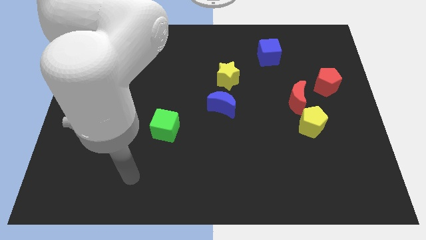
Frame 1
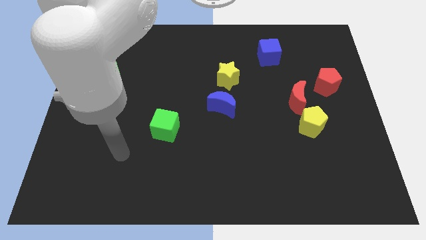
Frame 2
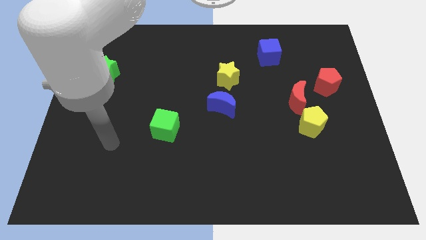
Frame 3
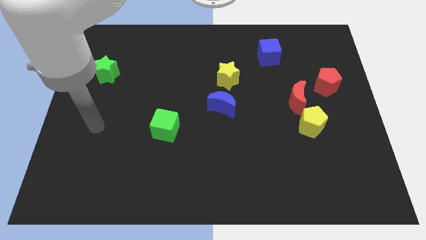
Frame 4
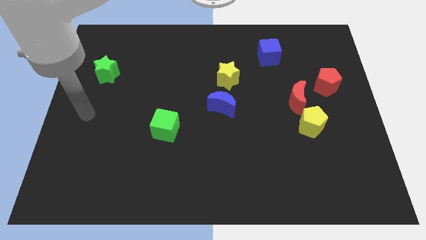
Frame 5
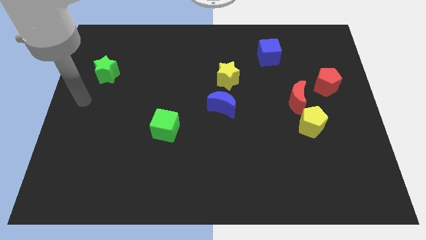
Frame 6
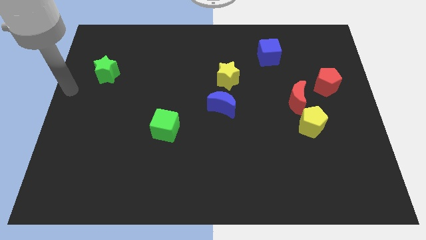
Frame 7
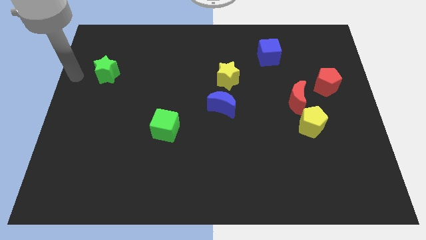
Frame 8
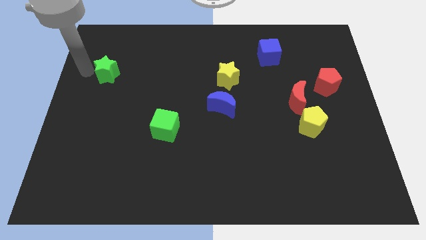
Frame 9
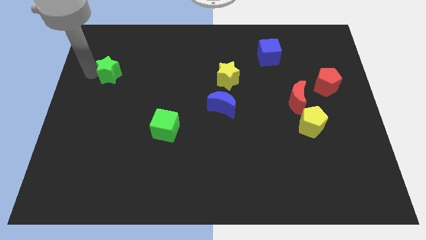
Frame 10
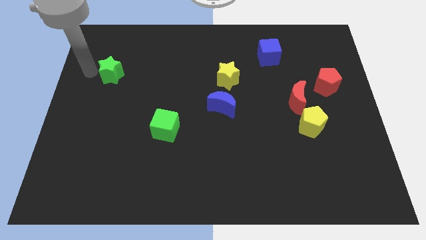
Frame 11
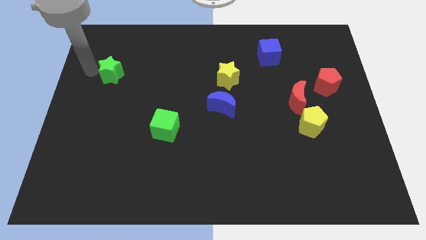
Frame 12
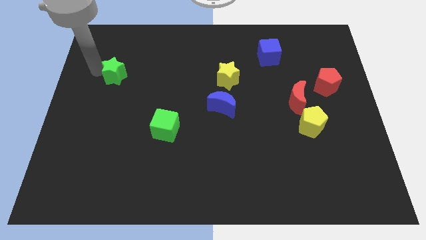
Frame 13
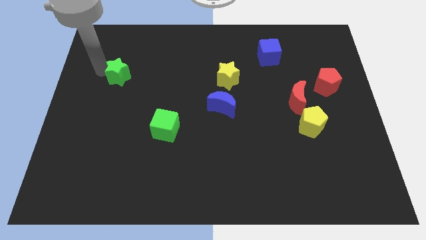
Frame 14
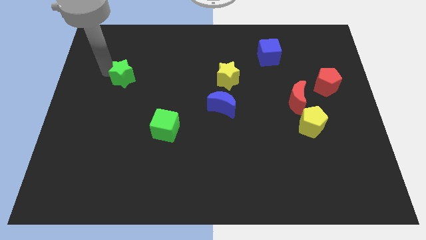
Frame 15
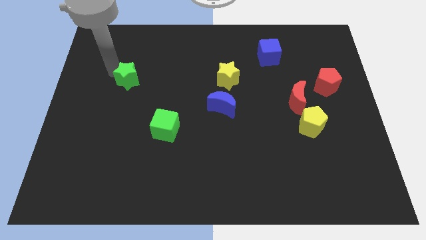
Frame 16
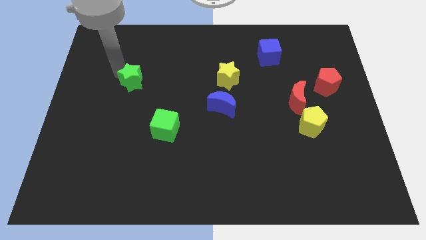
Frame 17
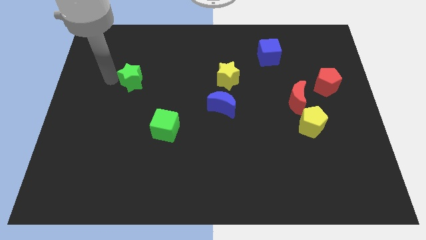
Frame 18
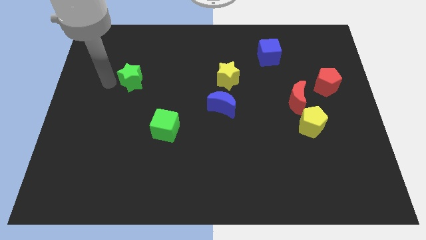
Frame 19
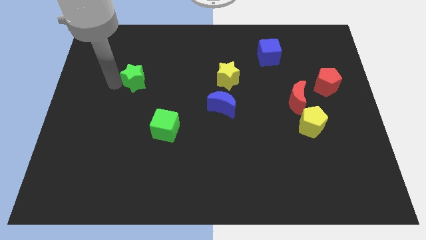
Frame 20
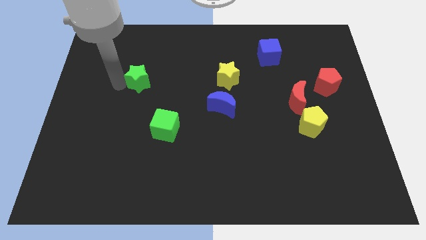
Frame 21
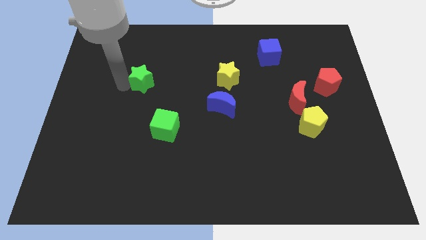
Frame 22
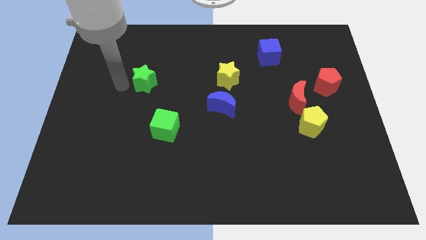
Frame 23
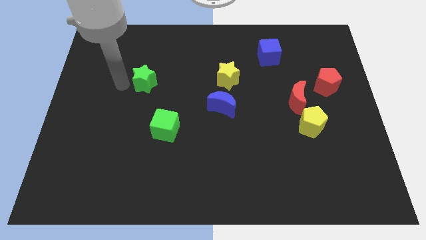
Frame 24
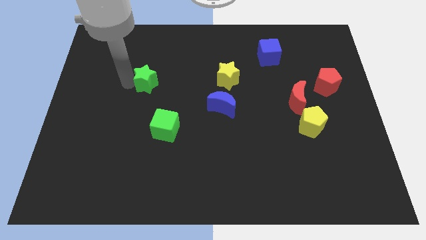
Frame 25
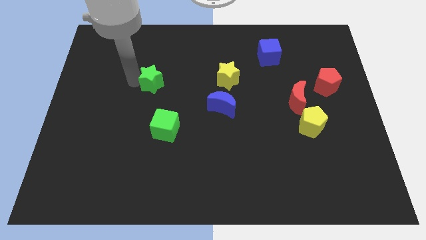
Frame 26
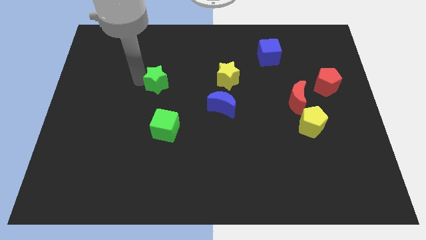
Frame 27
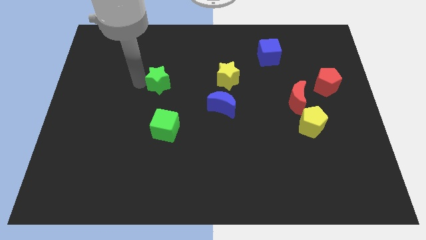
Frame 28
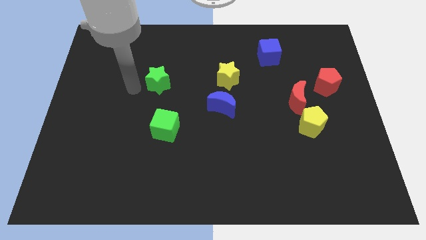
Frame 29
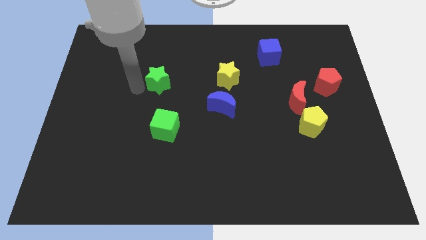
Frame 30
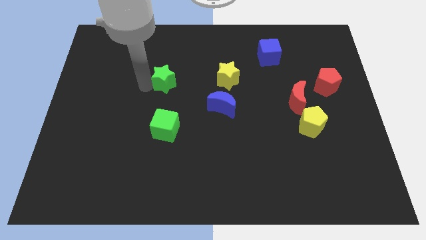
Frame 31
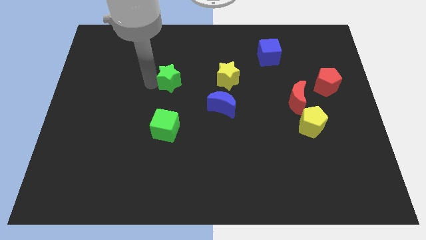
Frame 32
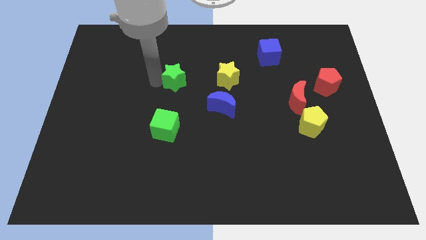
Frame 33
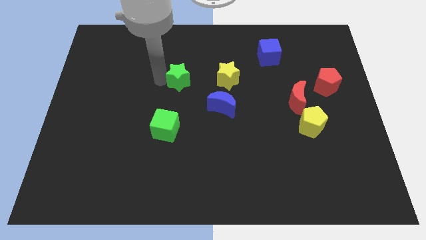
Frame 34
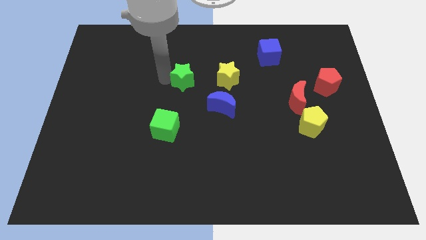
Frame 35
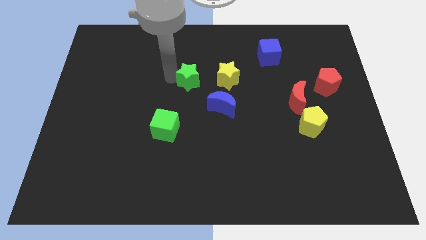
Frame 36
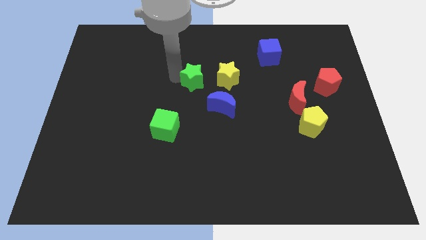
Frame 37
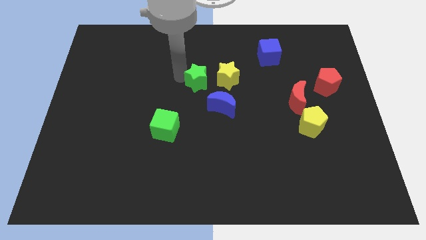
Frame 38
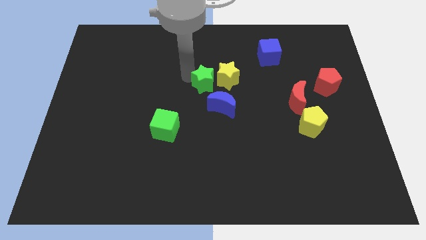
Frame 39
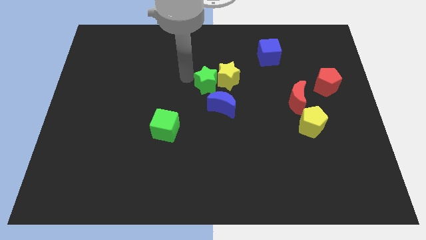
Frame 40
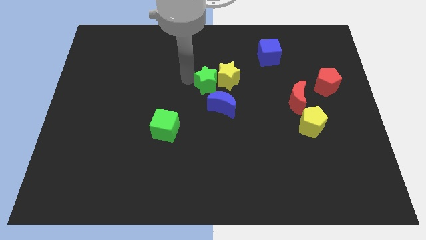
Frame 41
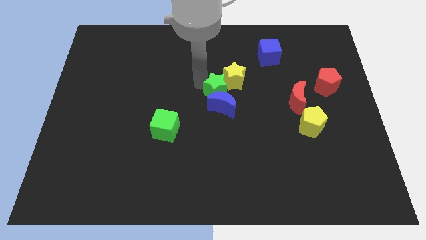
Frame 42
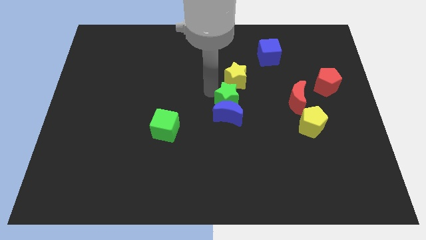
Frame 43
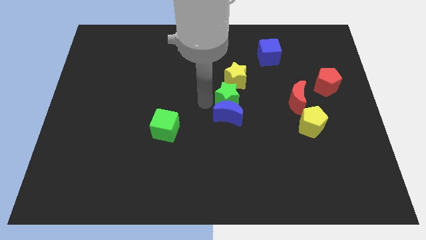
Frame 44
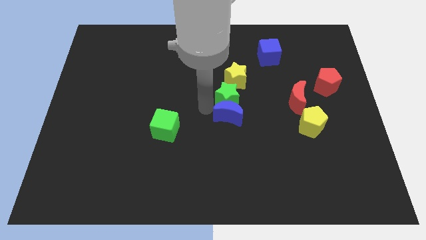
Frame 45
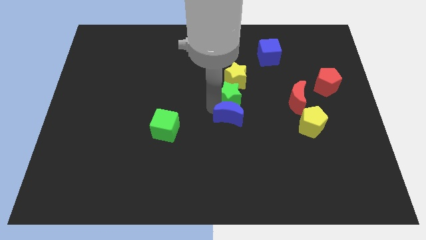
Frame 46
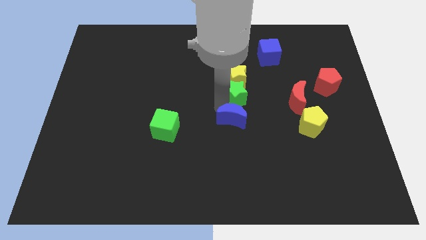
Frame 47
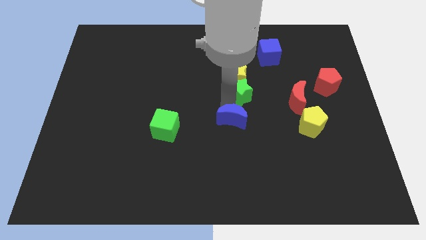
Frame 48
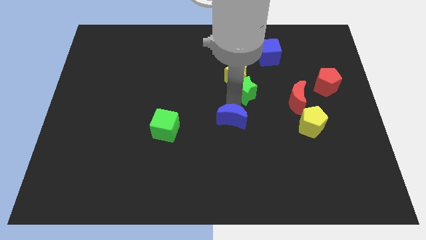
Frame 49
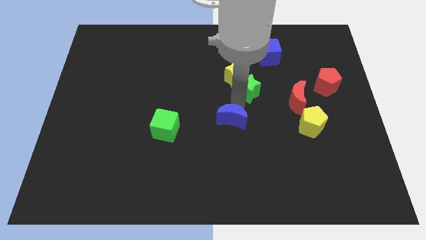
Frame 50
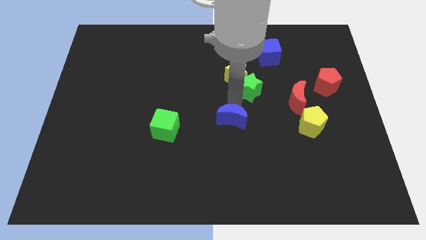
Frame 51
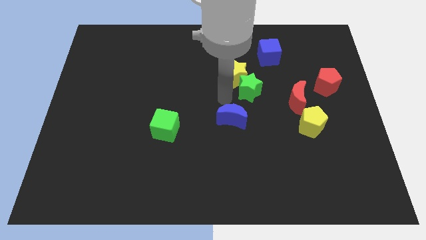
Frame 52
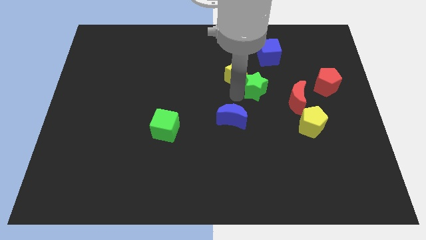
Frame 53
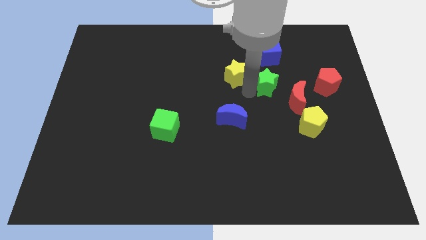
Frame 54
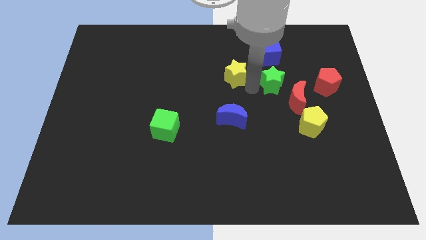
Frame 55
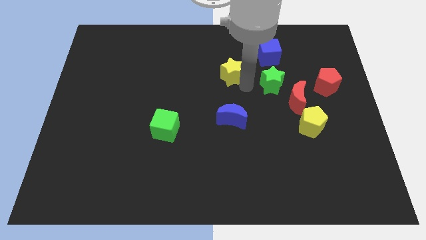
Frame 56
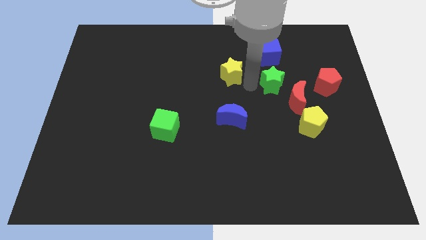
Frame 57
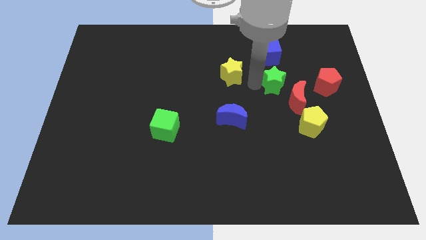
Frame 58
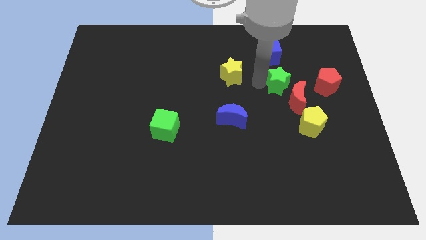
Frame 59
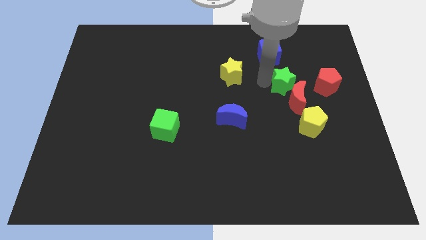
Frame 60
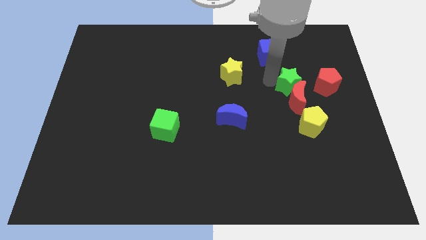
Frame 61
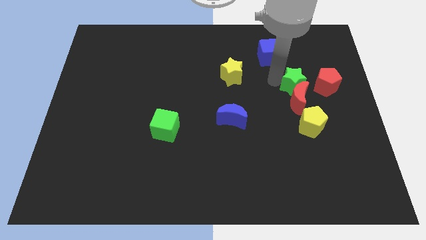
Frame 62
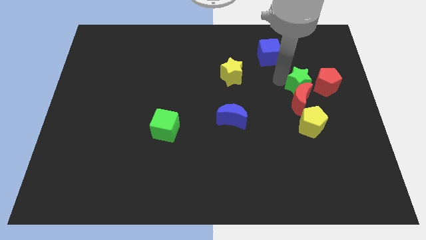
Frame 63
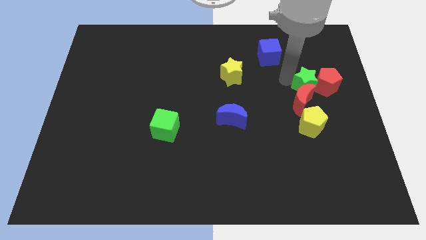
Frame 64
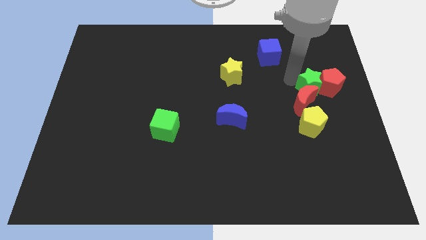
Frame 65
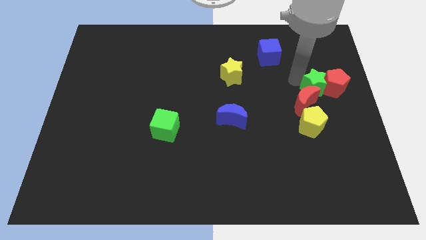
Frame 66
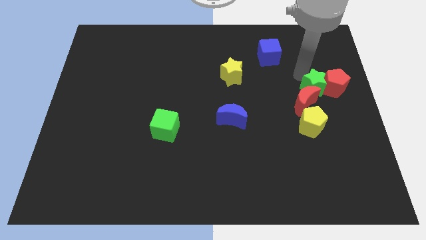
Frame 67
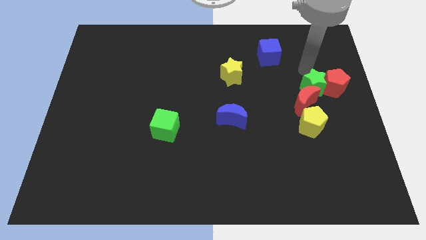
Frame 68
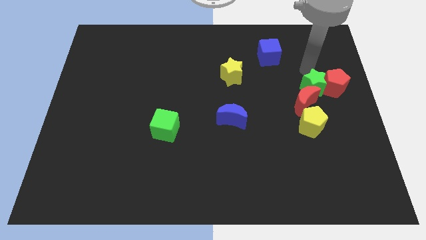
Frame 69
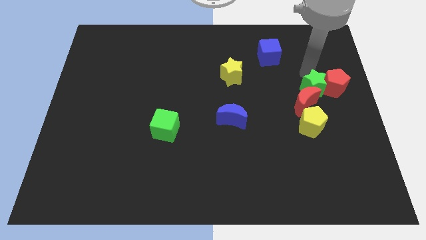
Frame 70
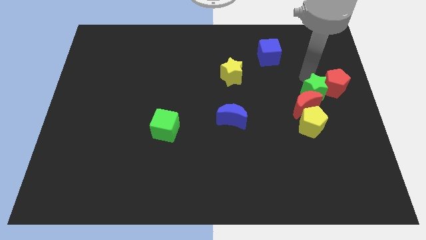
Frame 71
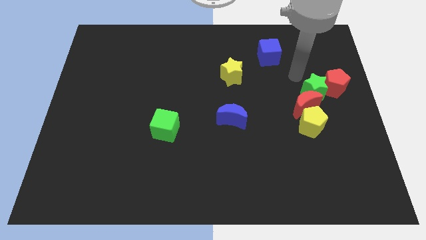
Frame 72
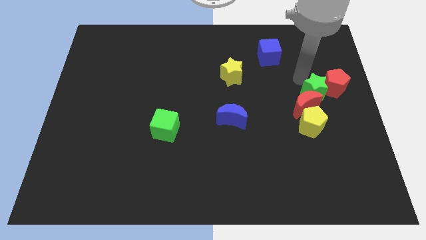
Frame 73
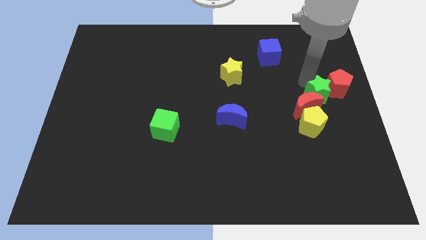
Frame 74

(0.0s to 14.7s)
push the green star diagonally up and to the right of the yellow pentagon
